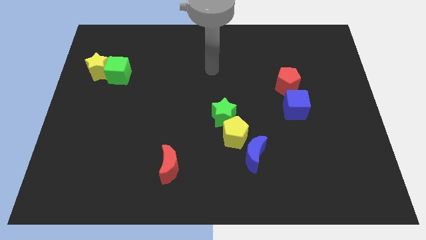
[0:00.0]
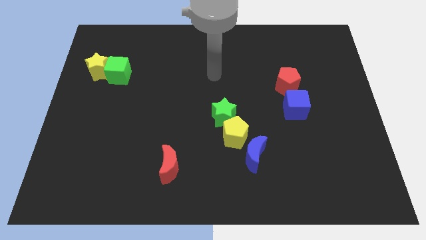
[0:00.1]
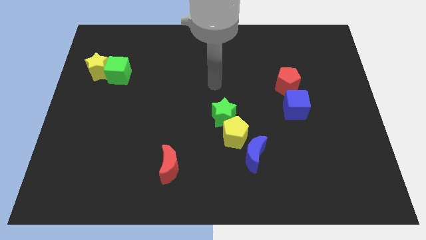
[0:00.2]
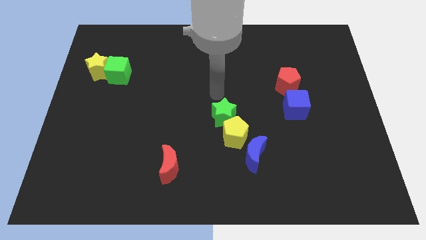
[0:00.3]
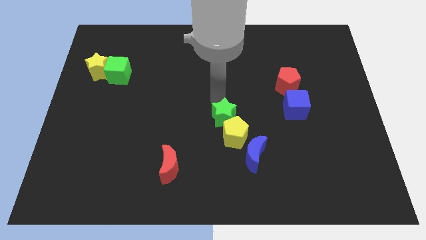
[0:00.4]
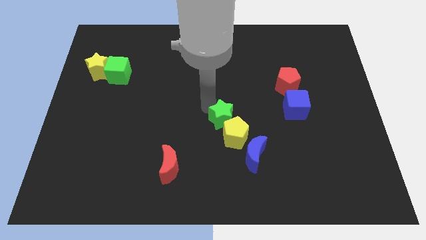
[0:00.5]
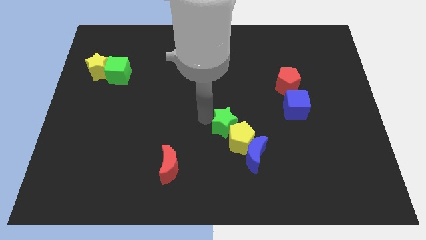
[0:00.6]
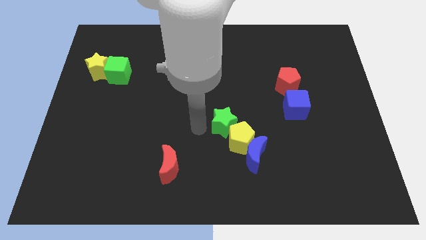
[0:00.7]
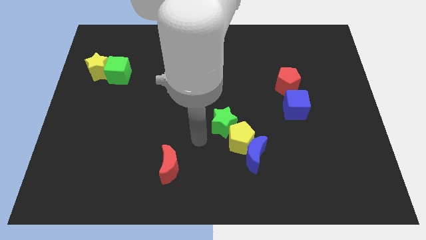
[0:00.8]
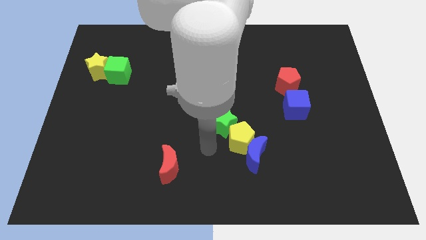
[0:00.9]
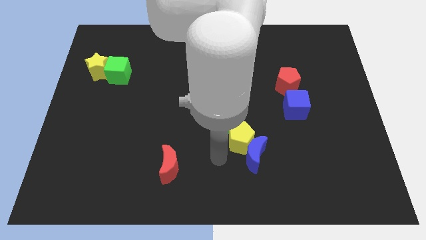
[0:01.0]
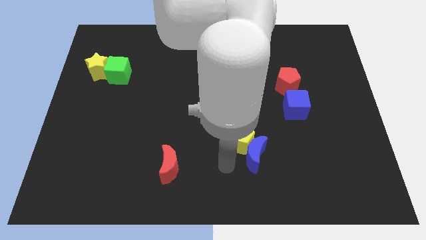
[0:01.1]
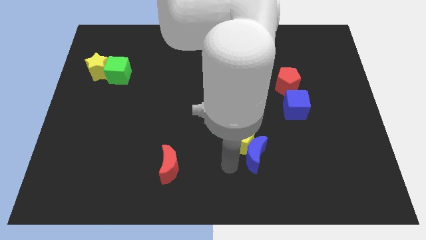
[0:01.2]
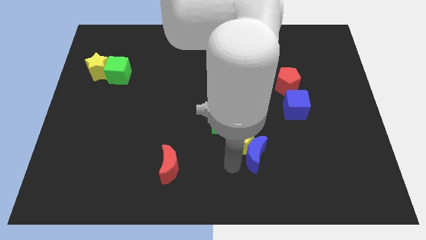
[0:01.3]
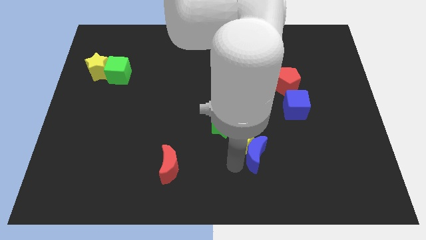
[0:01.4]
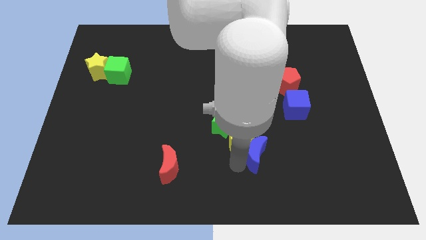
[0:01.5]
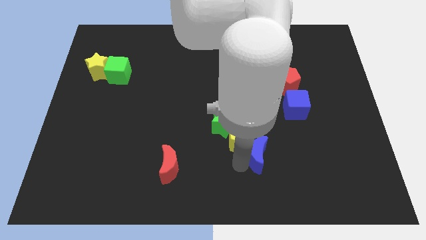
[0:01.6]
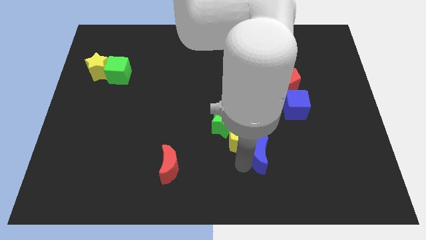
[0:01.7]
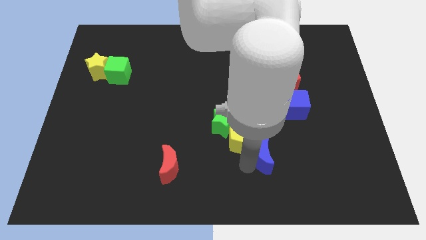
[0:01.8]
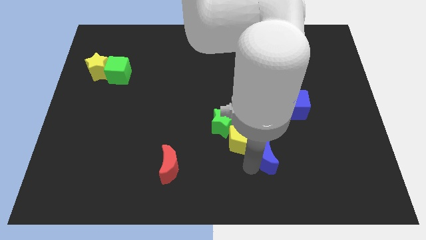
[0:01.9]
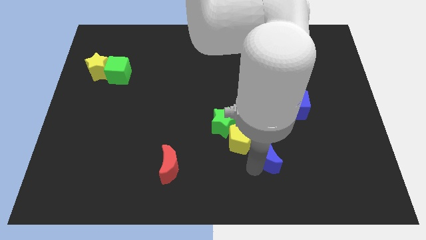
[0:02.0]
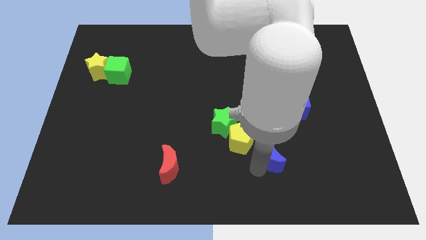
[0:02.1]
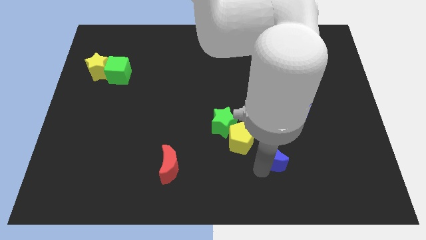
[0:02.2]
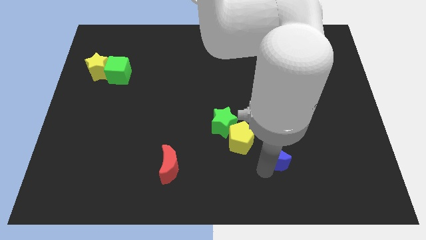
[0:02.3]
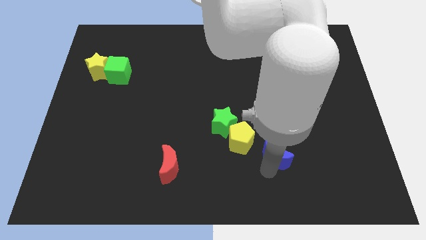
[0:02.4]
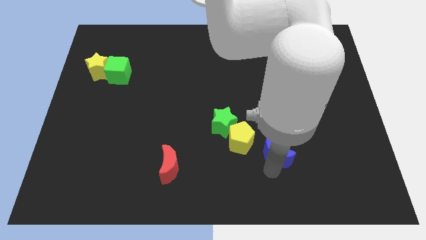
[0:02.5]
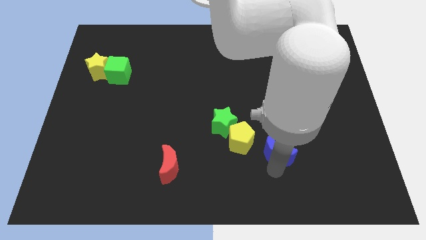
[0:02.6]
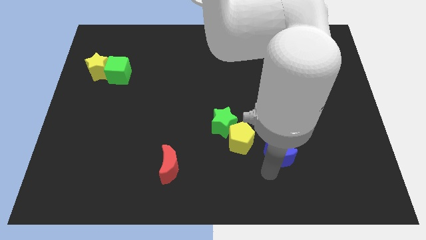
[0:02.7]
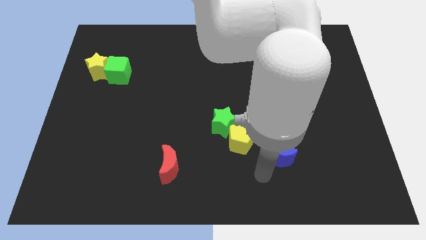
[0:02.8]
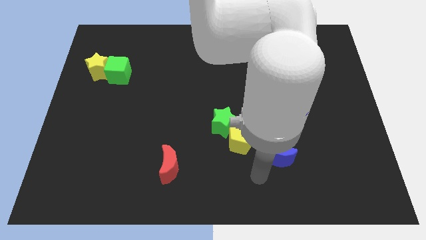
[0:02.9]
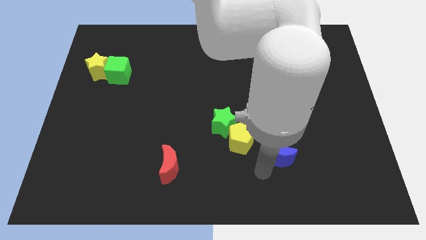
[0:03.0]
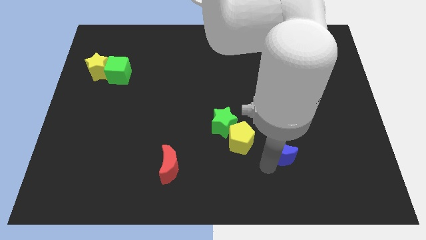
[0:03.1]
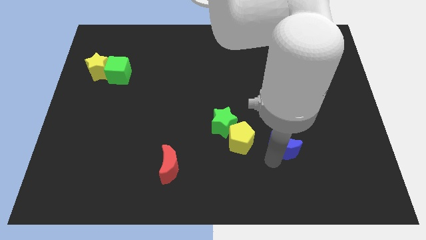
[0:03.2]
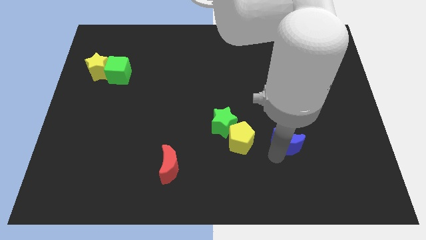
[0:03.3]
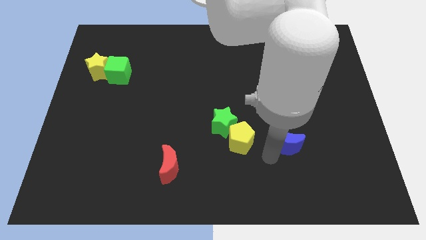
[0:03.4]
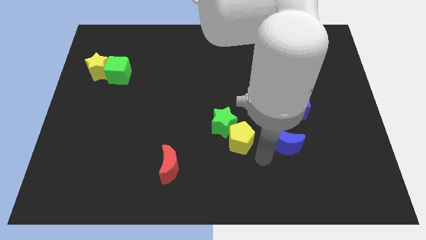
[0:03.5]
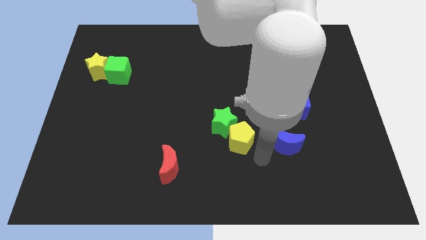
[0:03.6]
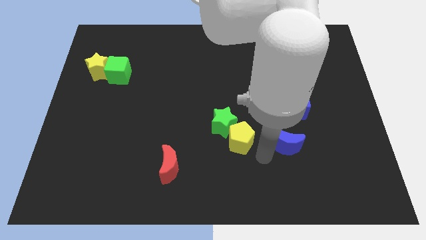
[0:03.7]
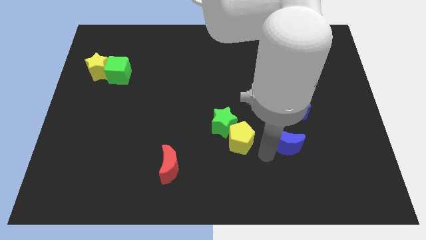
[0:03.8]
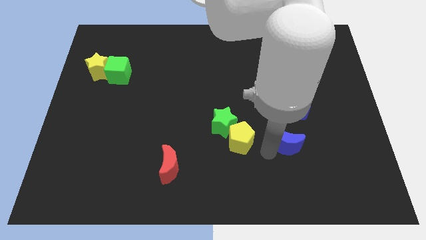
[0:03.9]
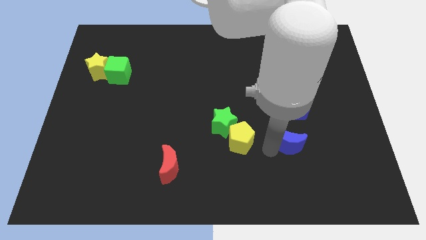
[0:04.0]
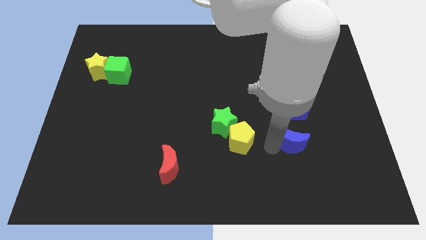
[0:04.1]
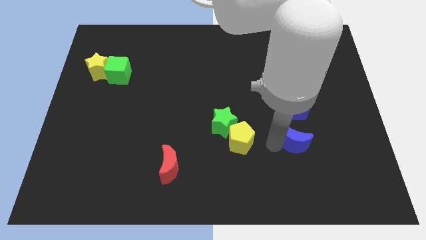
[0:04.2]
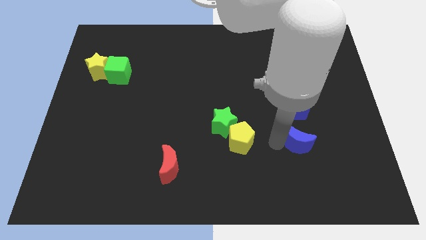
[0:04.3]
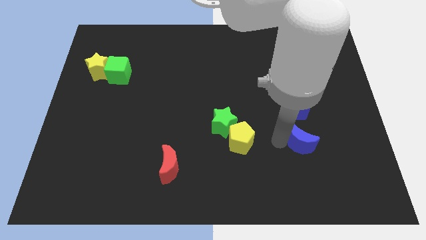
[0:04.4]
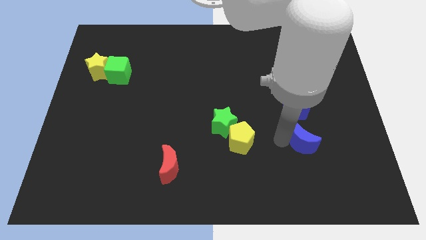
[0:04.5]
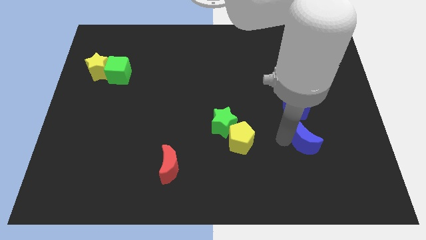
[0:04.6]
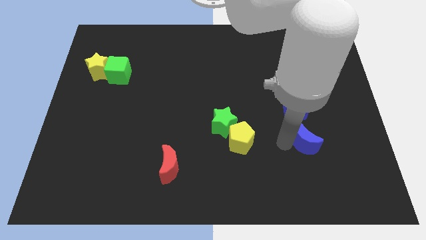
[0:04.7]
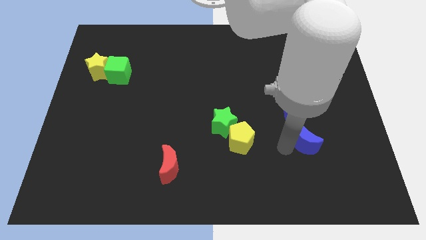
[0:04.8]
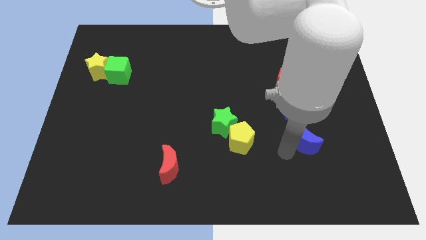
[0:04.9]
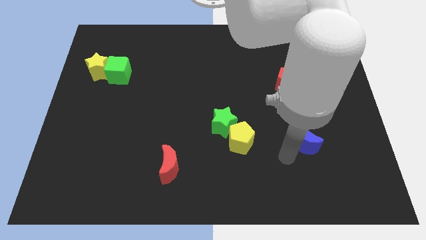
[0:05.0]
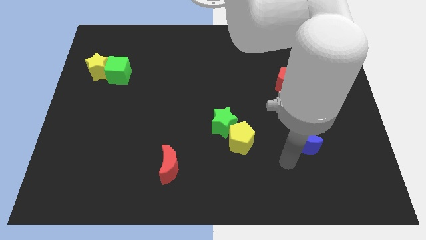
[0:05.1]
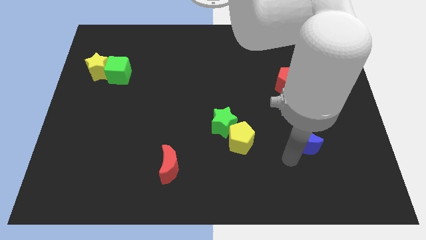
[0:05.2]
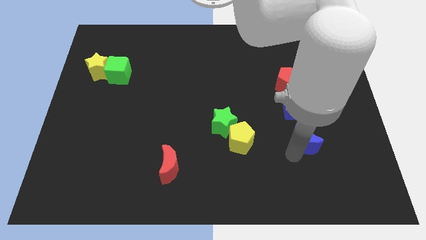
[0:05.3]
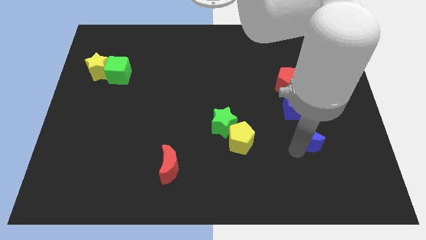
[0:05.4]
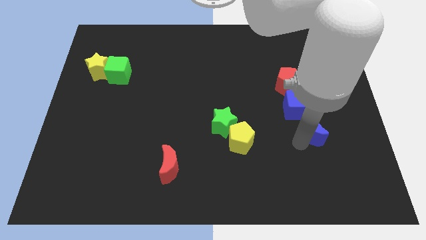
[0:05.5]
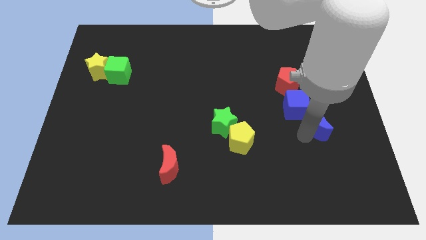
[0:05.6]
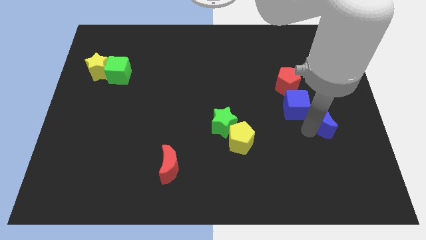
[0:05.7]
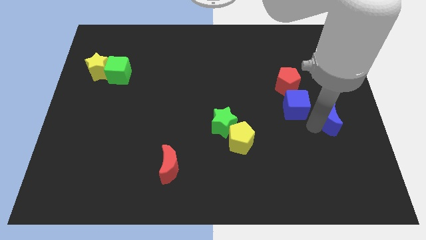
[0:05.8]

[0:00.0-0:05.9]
push the blue moon to the right side

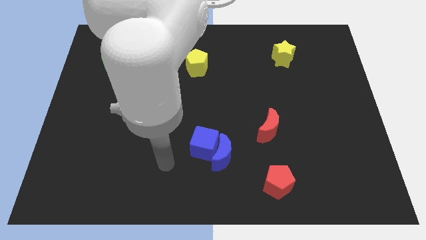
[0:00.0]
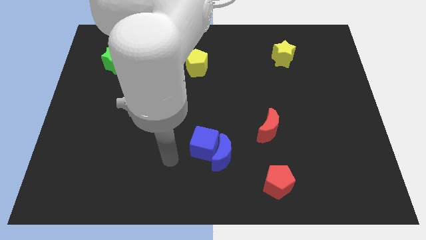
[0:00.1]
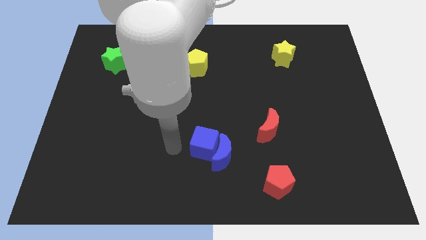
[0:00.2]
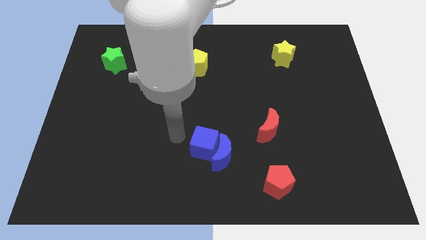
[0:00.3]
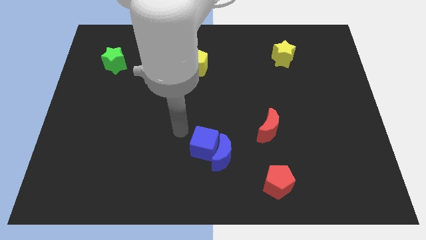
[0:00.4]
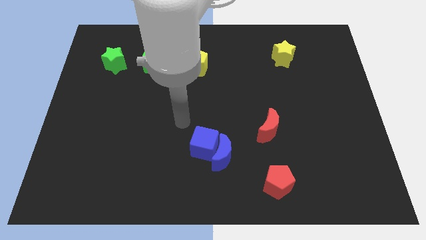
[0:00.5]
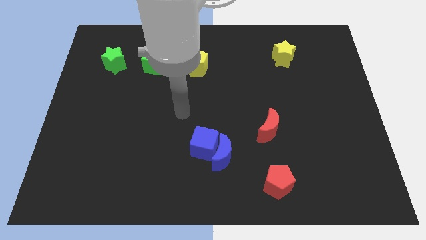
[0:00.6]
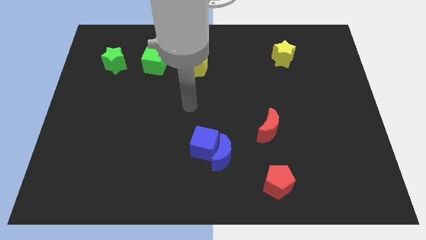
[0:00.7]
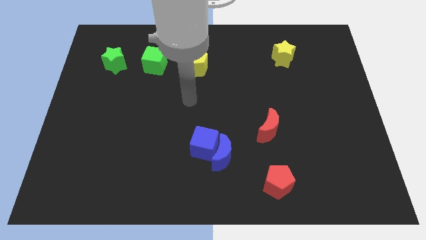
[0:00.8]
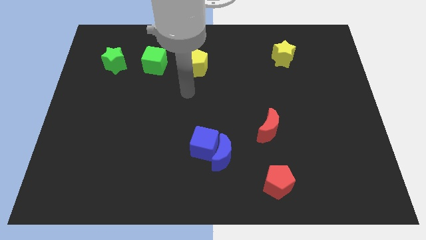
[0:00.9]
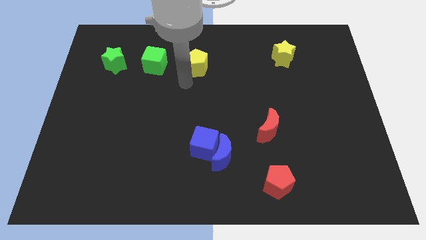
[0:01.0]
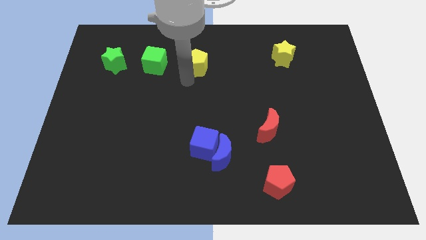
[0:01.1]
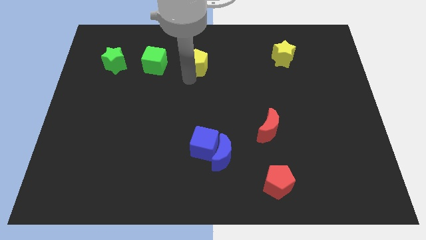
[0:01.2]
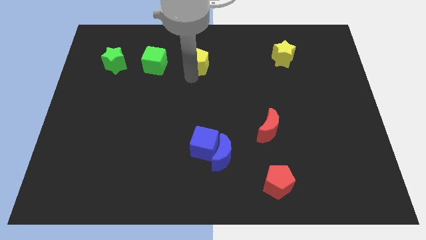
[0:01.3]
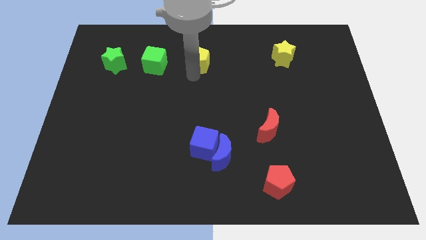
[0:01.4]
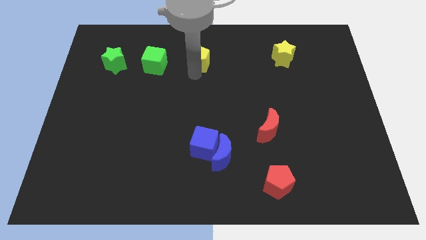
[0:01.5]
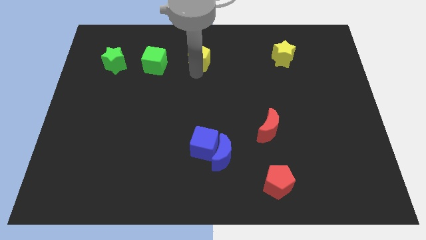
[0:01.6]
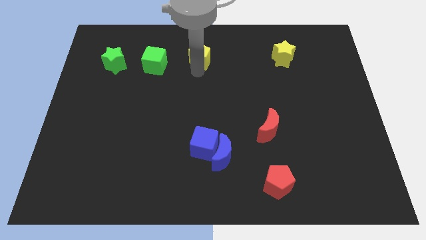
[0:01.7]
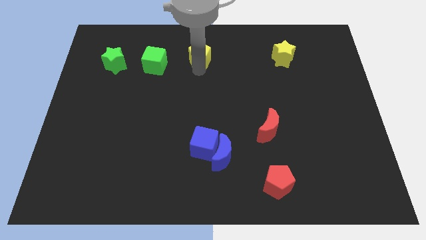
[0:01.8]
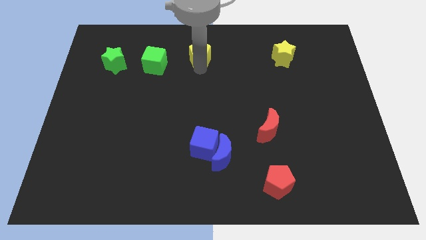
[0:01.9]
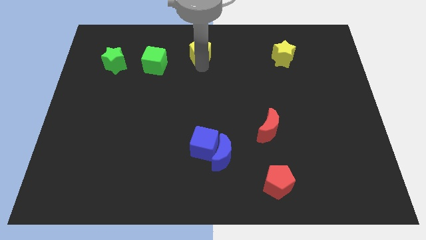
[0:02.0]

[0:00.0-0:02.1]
put the yellow pentagon to the top side

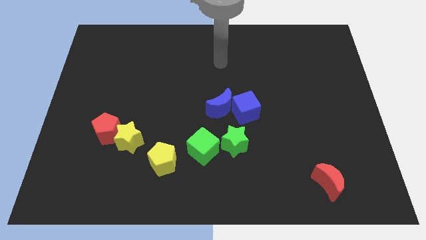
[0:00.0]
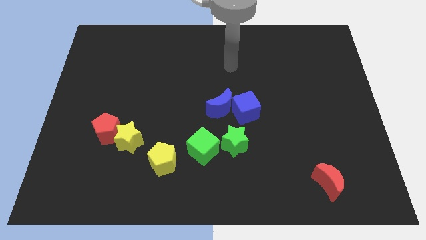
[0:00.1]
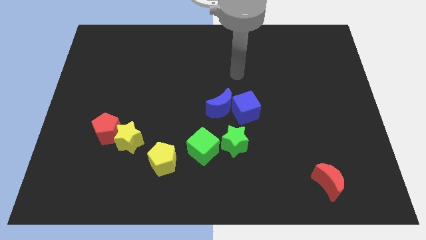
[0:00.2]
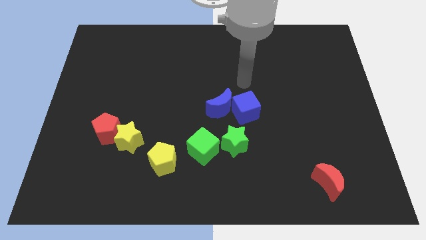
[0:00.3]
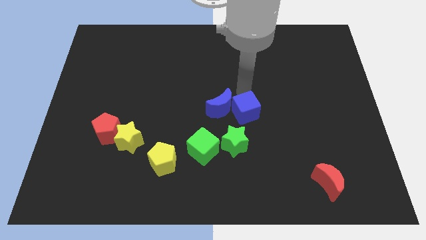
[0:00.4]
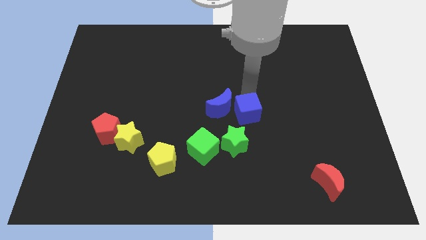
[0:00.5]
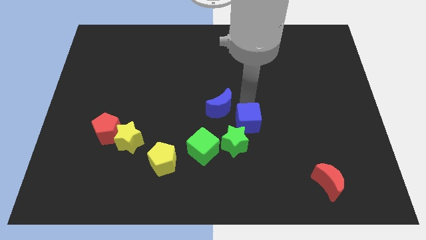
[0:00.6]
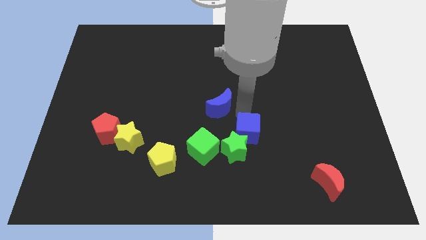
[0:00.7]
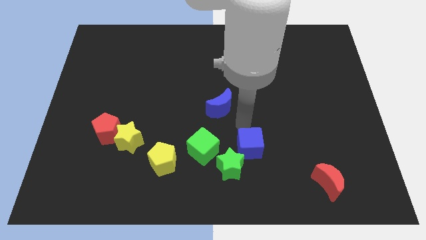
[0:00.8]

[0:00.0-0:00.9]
put the green star to the bottom side
